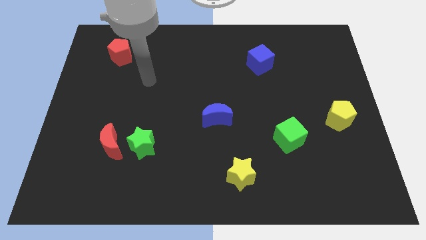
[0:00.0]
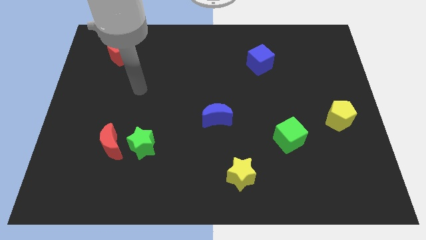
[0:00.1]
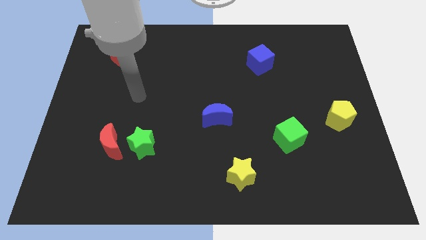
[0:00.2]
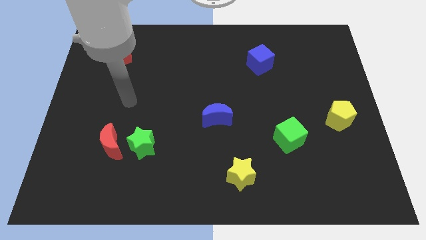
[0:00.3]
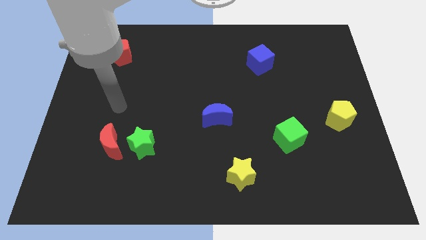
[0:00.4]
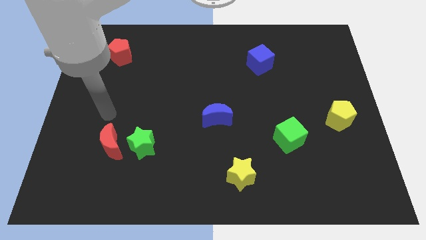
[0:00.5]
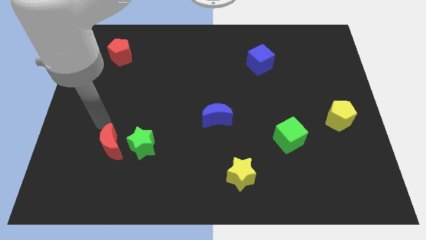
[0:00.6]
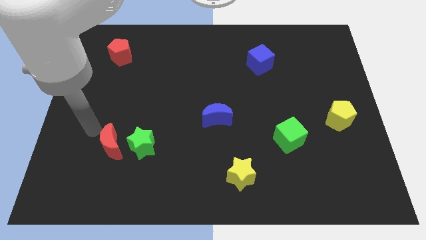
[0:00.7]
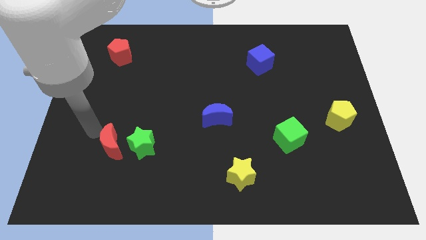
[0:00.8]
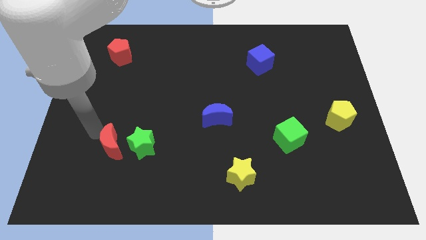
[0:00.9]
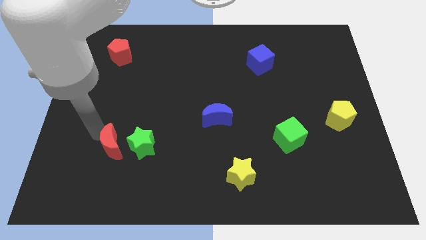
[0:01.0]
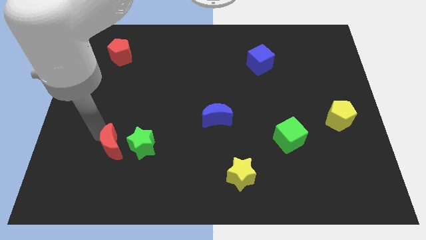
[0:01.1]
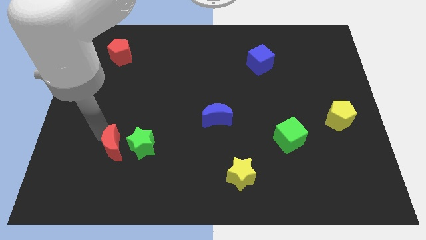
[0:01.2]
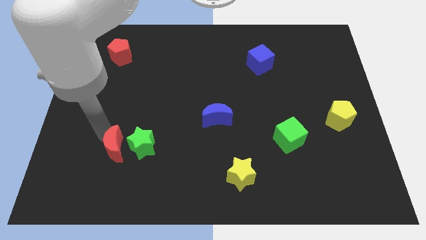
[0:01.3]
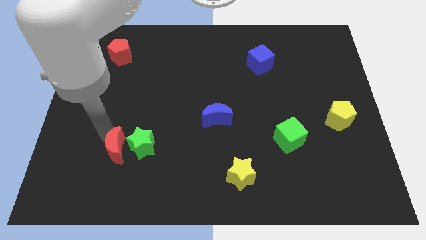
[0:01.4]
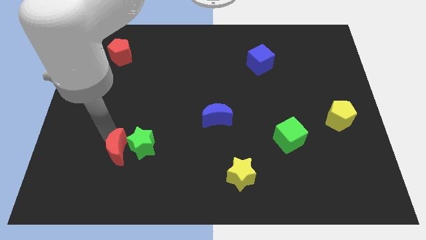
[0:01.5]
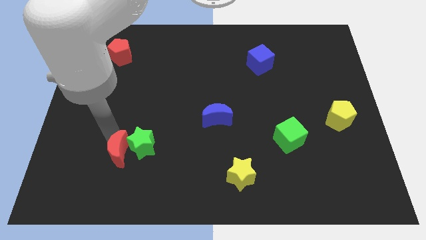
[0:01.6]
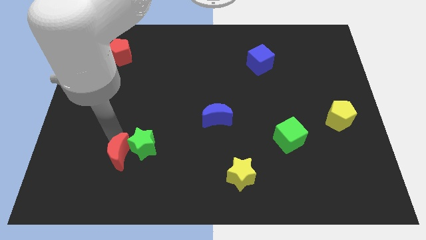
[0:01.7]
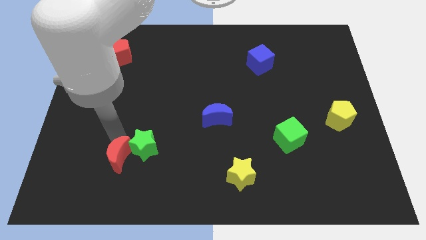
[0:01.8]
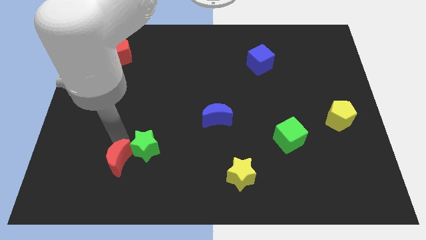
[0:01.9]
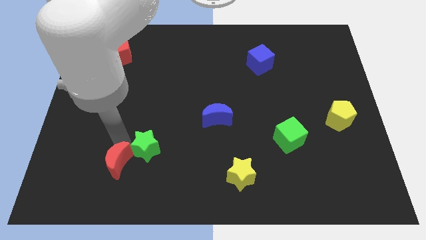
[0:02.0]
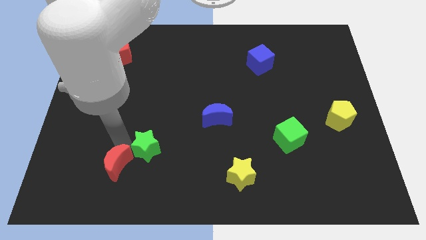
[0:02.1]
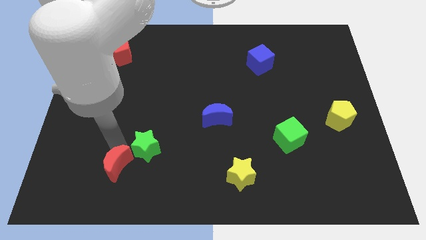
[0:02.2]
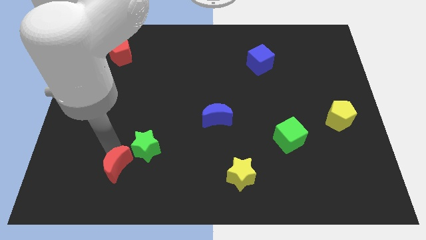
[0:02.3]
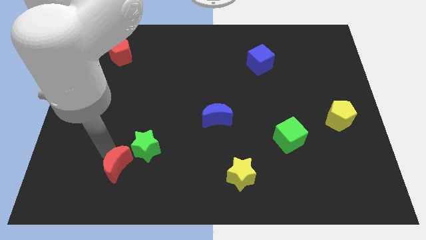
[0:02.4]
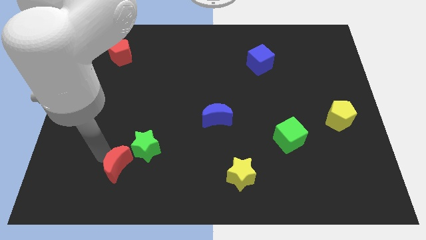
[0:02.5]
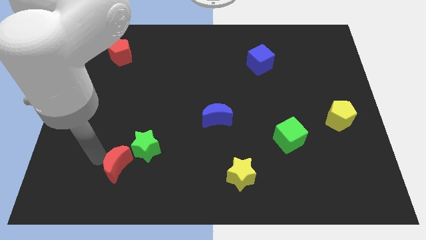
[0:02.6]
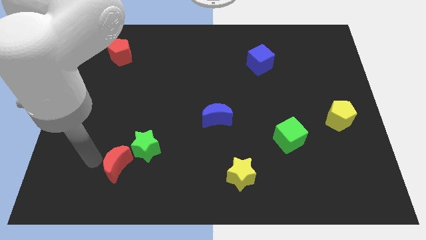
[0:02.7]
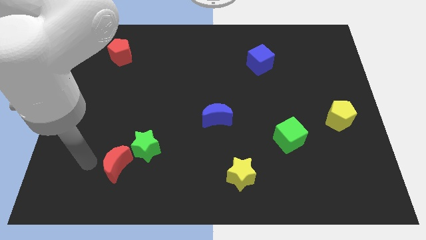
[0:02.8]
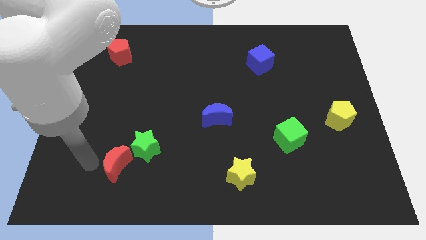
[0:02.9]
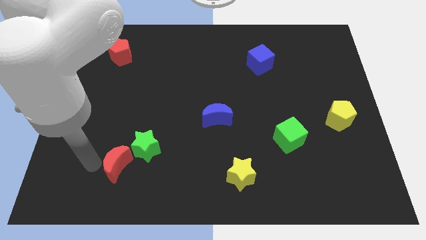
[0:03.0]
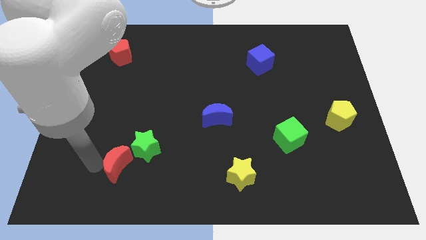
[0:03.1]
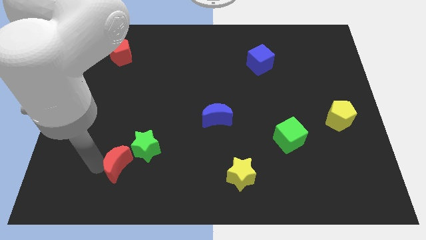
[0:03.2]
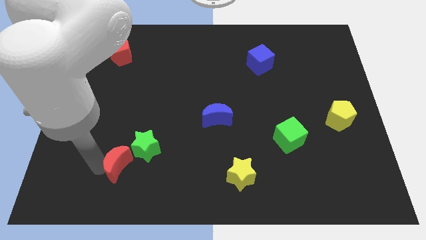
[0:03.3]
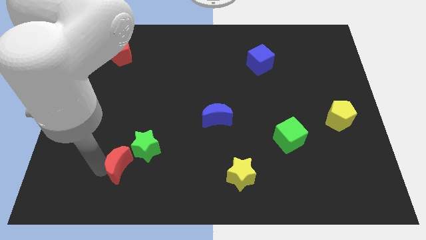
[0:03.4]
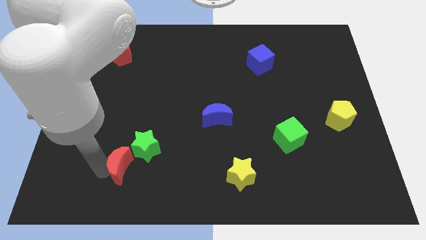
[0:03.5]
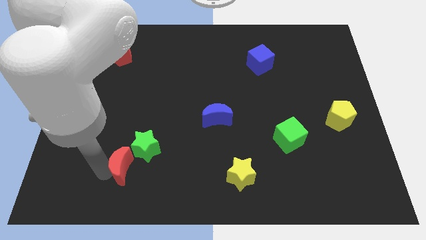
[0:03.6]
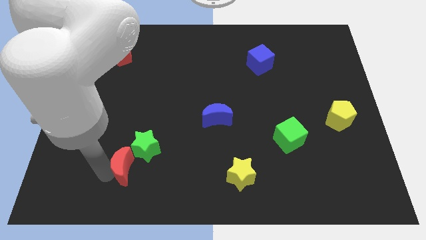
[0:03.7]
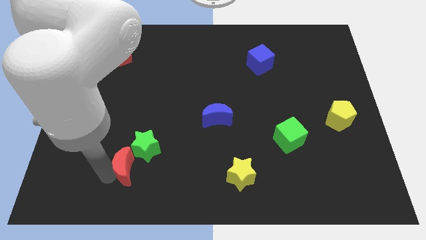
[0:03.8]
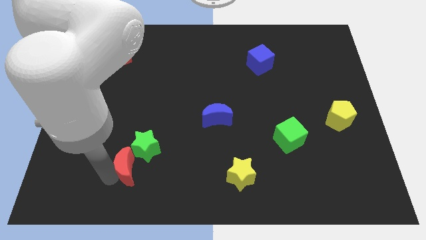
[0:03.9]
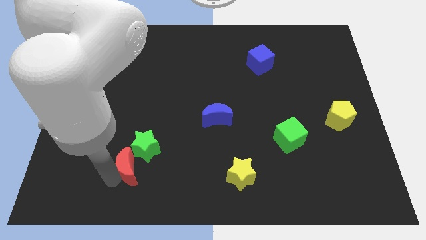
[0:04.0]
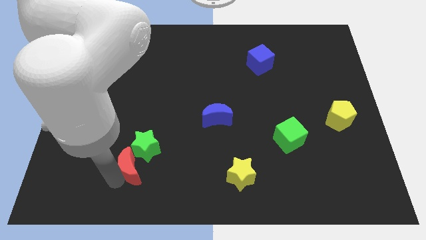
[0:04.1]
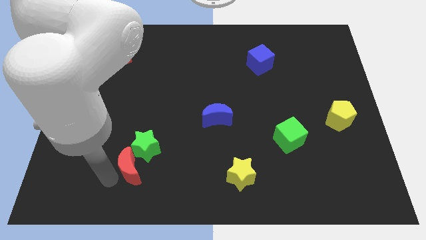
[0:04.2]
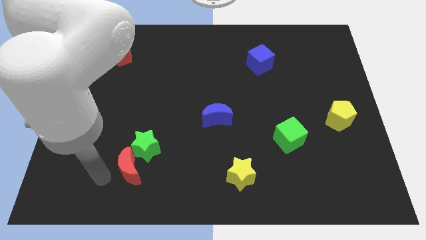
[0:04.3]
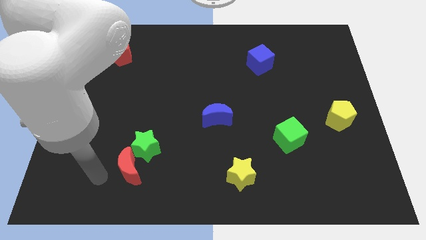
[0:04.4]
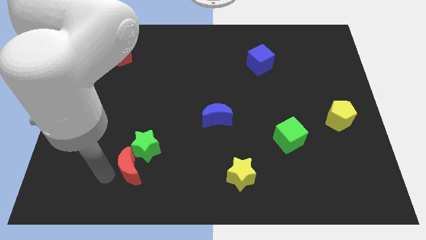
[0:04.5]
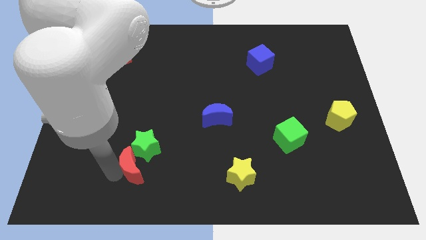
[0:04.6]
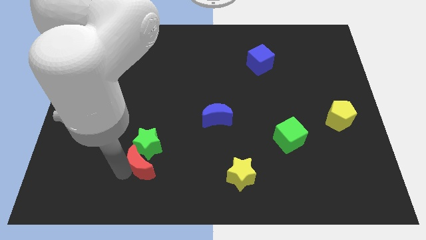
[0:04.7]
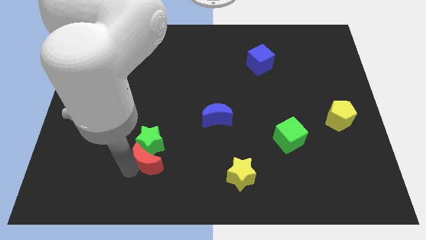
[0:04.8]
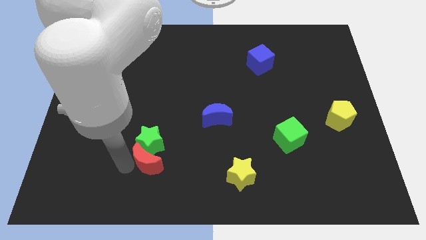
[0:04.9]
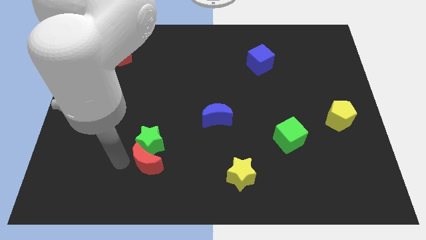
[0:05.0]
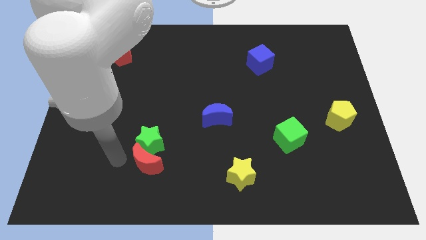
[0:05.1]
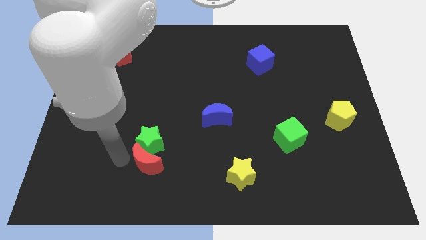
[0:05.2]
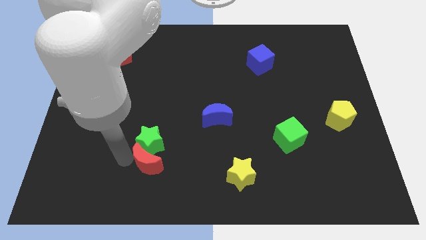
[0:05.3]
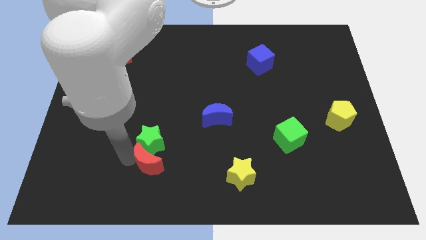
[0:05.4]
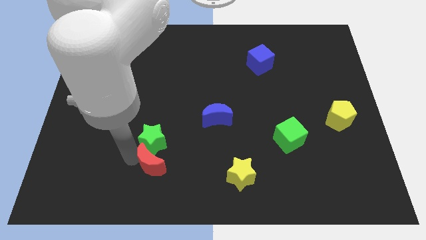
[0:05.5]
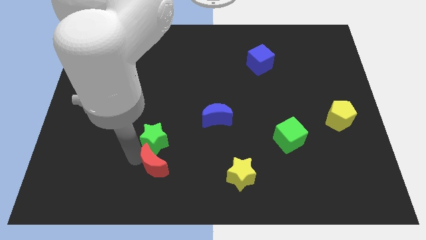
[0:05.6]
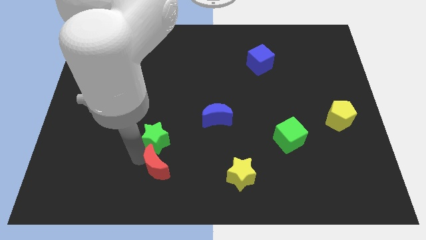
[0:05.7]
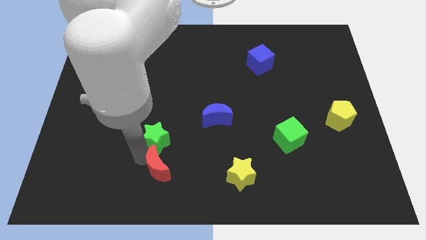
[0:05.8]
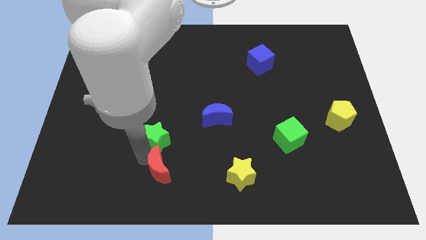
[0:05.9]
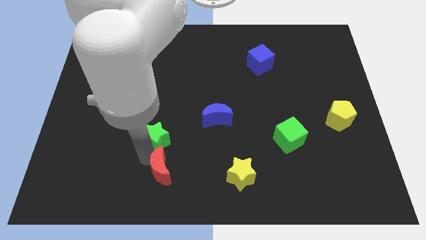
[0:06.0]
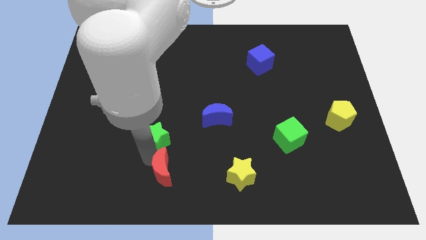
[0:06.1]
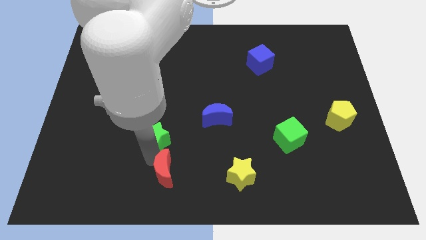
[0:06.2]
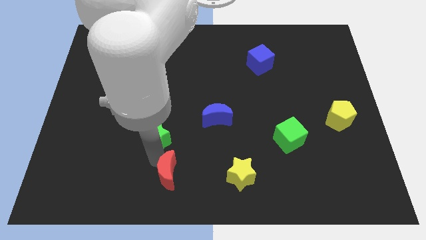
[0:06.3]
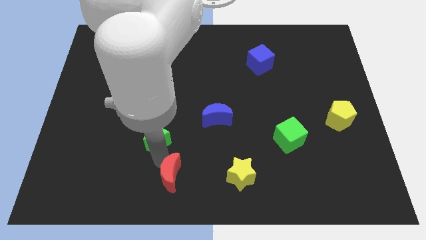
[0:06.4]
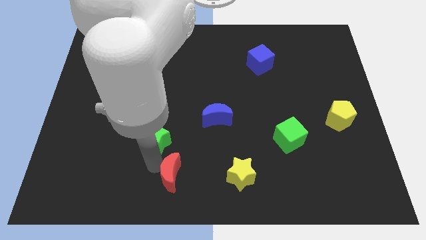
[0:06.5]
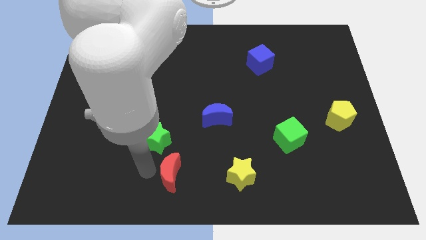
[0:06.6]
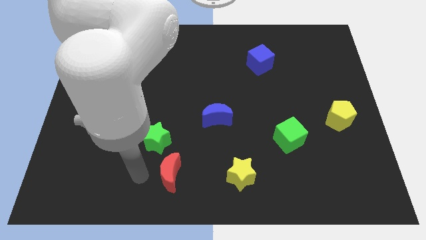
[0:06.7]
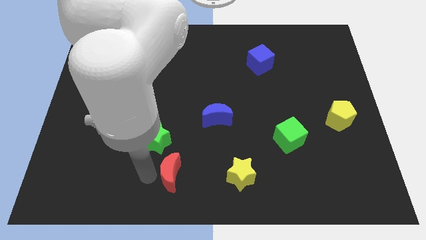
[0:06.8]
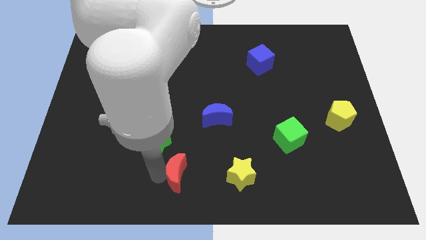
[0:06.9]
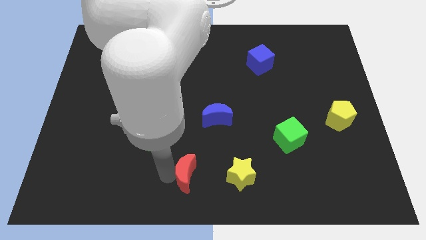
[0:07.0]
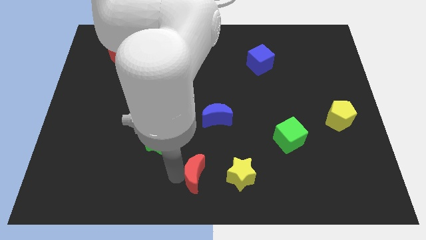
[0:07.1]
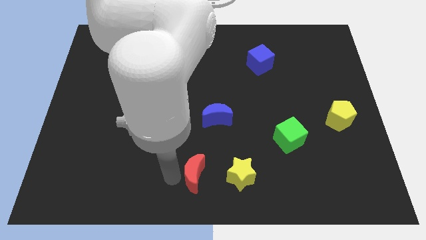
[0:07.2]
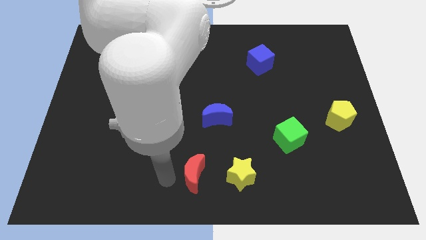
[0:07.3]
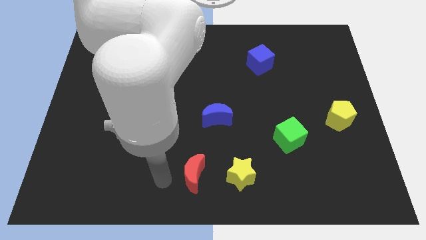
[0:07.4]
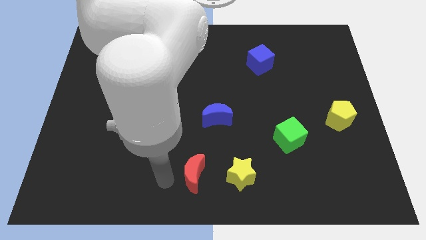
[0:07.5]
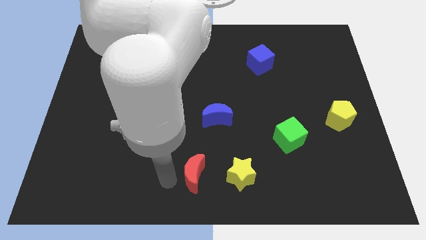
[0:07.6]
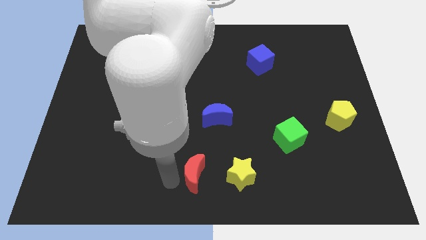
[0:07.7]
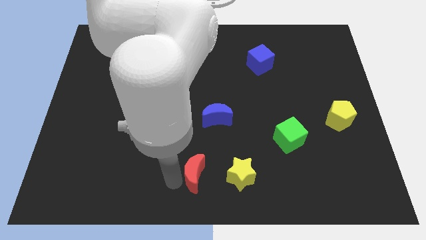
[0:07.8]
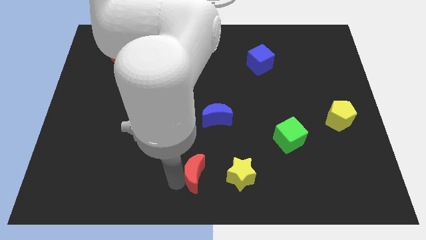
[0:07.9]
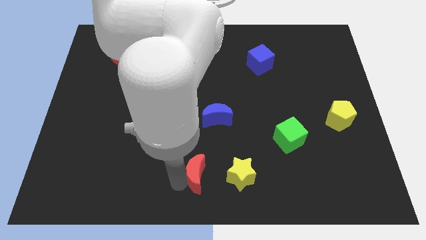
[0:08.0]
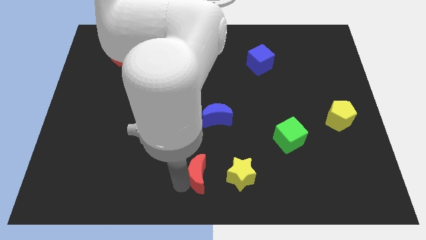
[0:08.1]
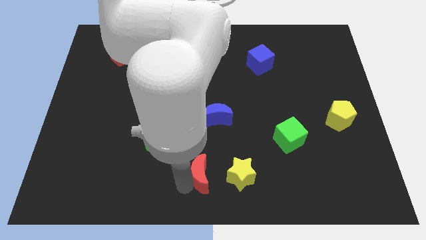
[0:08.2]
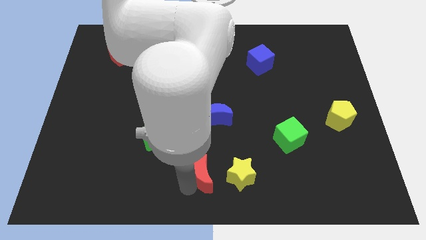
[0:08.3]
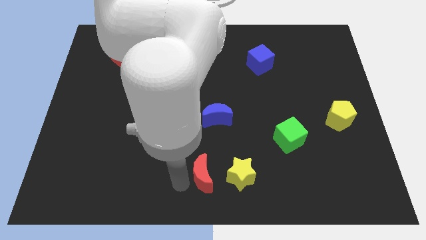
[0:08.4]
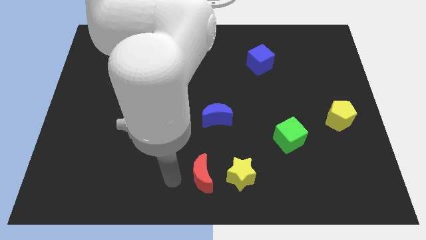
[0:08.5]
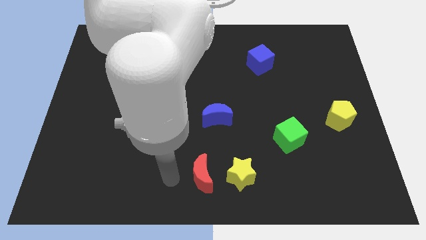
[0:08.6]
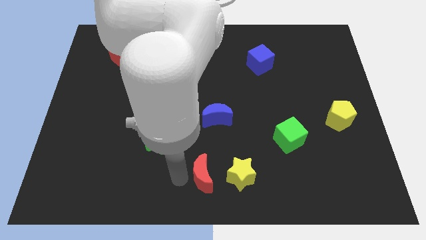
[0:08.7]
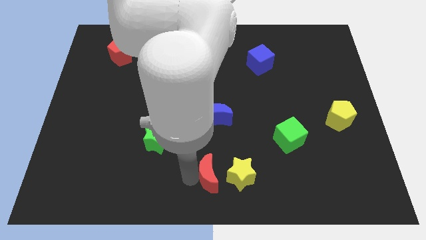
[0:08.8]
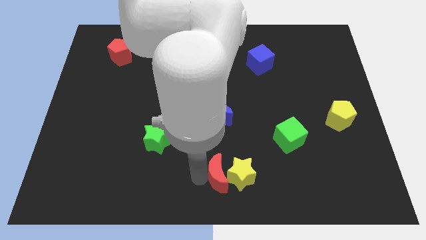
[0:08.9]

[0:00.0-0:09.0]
put the red moon next to the yellow star
